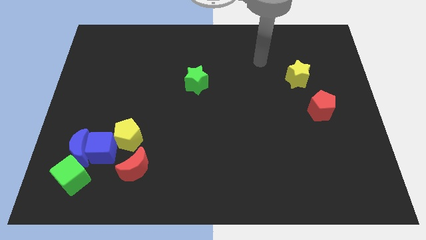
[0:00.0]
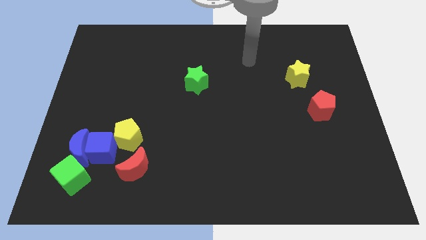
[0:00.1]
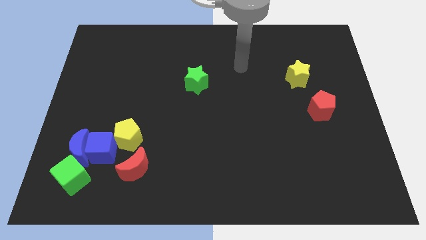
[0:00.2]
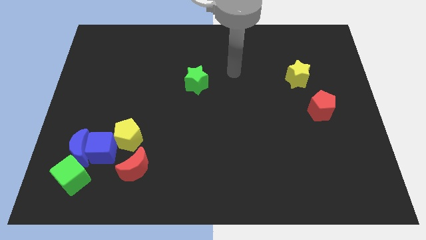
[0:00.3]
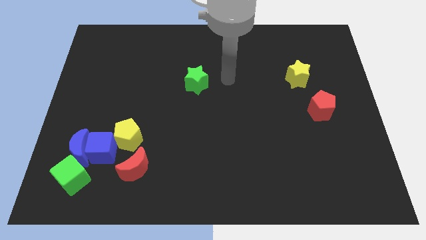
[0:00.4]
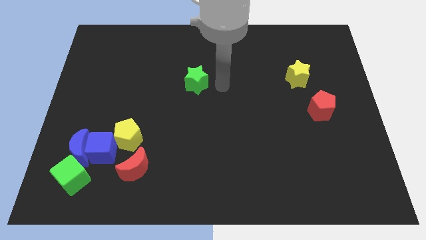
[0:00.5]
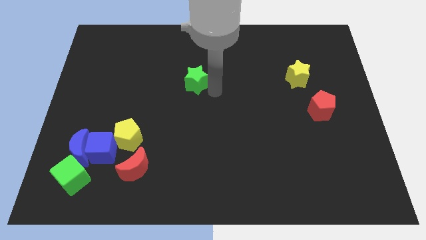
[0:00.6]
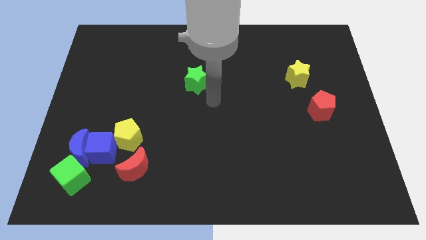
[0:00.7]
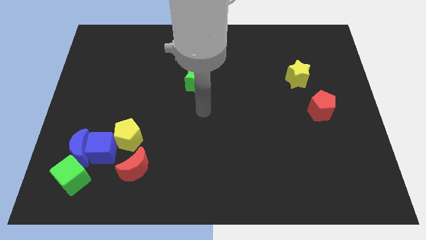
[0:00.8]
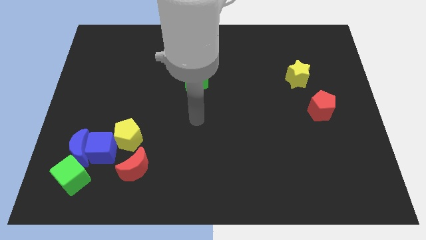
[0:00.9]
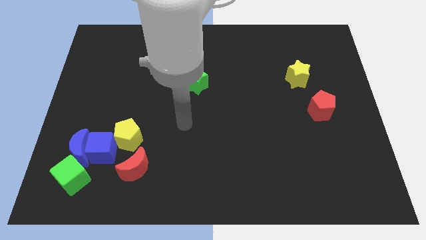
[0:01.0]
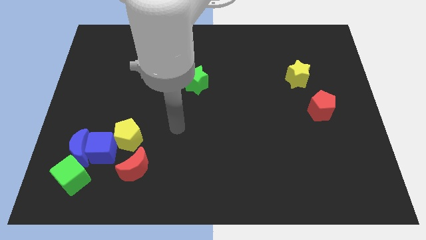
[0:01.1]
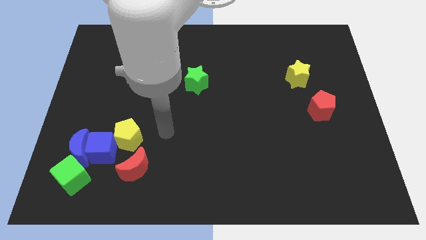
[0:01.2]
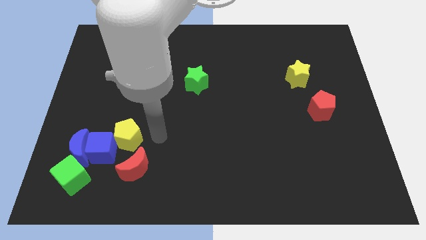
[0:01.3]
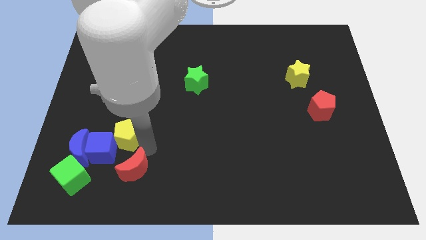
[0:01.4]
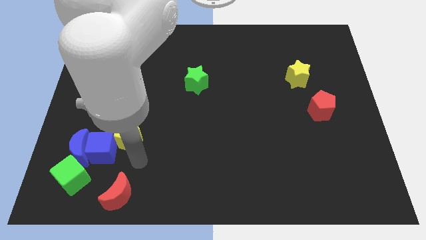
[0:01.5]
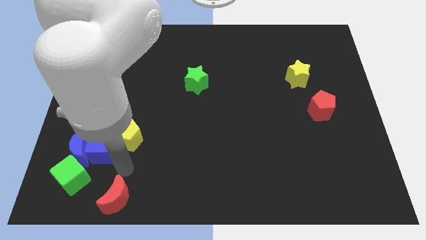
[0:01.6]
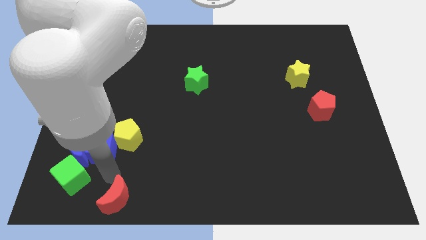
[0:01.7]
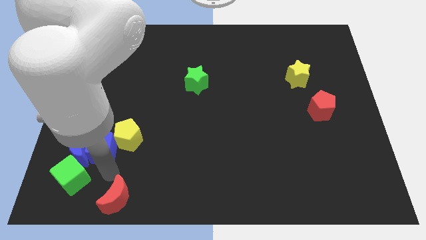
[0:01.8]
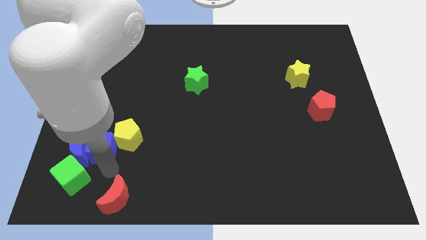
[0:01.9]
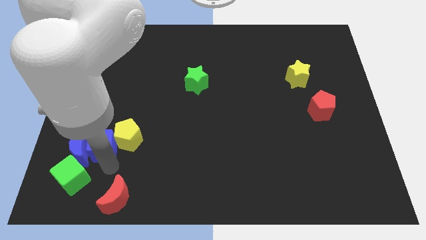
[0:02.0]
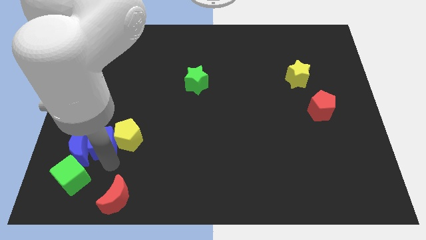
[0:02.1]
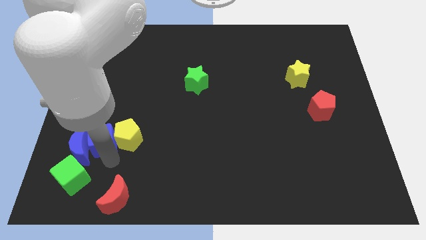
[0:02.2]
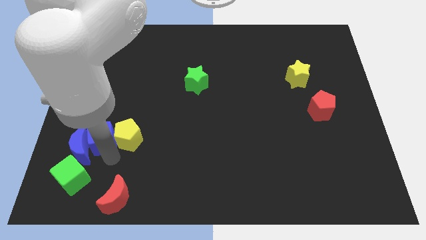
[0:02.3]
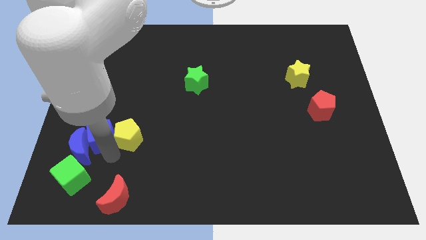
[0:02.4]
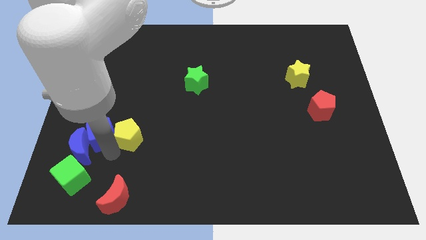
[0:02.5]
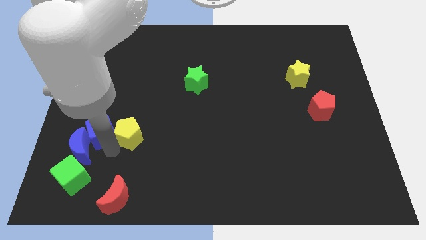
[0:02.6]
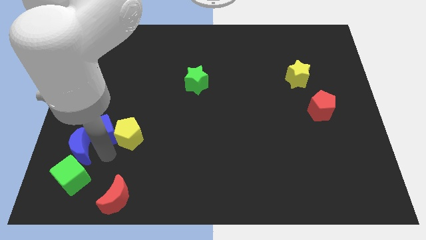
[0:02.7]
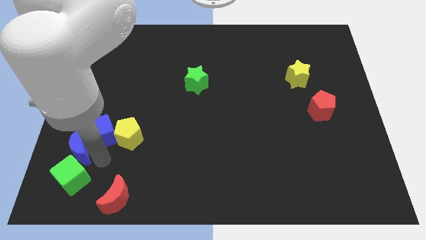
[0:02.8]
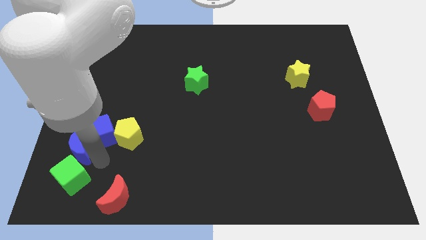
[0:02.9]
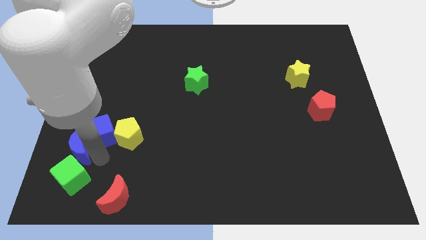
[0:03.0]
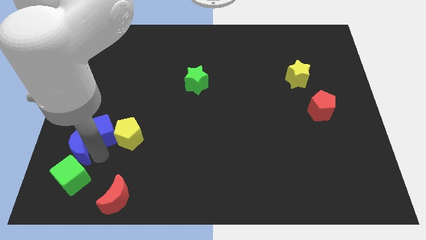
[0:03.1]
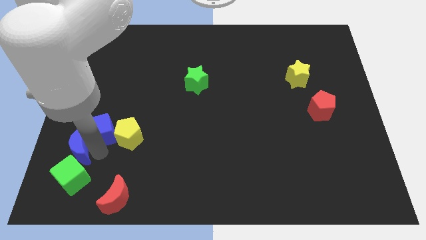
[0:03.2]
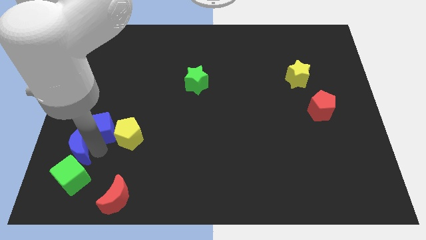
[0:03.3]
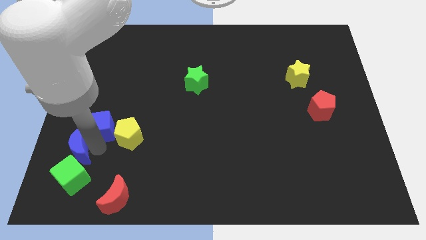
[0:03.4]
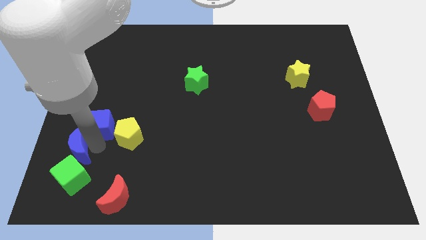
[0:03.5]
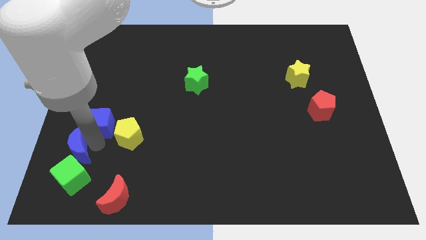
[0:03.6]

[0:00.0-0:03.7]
pull the blue cube apart from the group of blocks

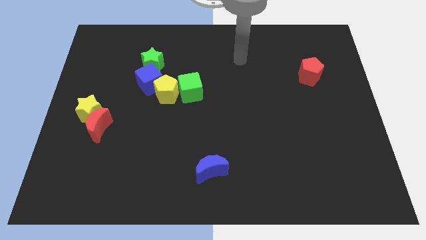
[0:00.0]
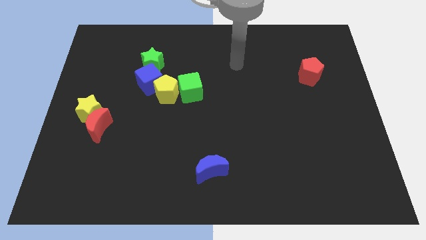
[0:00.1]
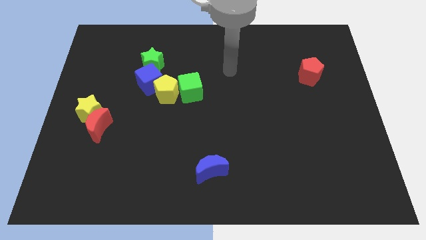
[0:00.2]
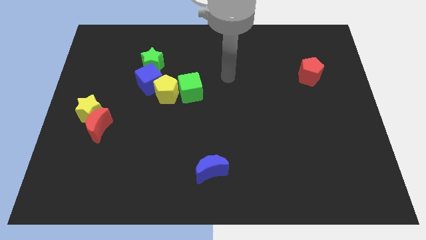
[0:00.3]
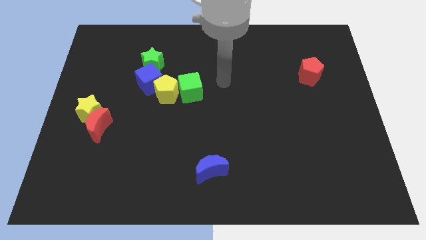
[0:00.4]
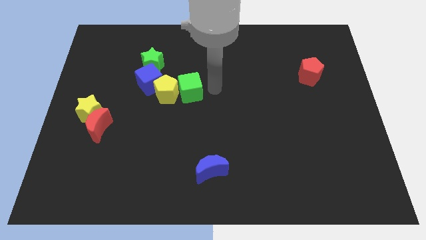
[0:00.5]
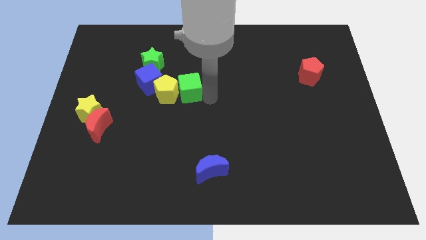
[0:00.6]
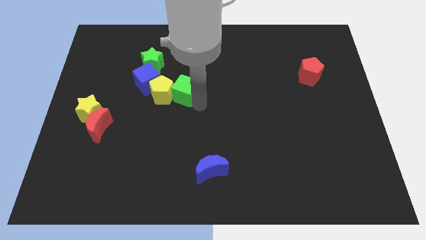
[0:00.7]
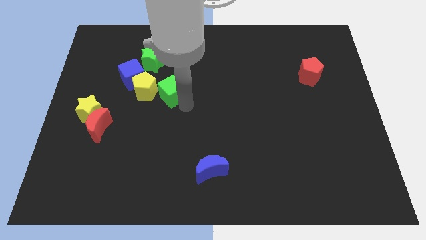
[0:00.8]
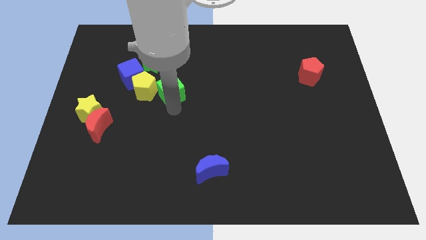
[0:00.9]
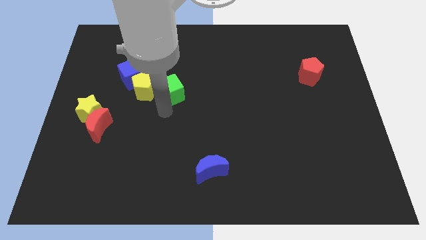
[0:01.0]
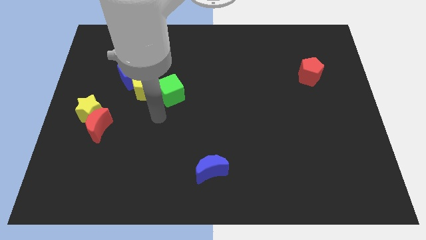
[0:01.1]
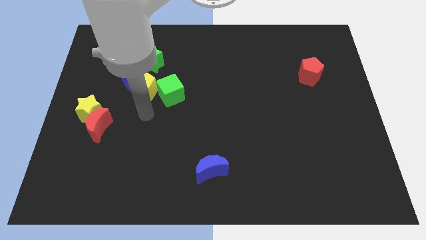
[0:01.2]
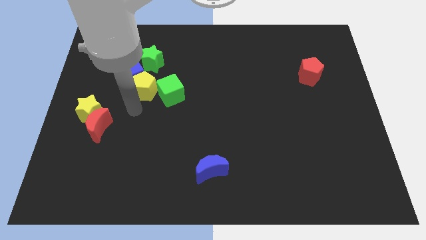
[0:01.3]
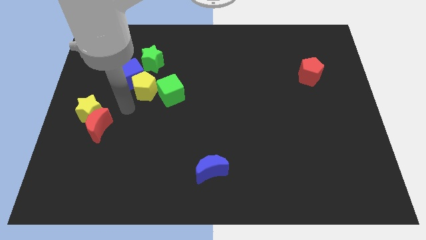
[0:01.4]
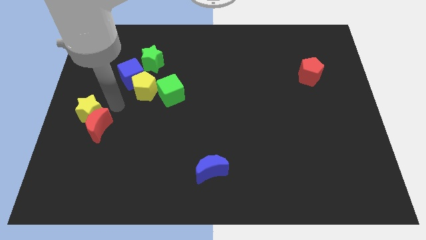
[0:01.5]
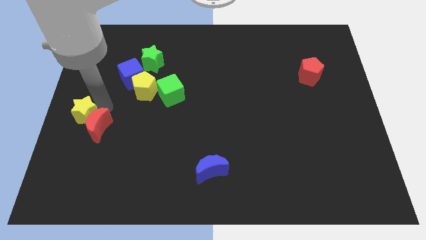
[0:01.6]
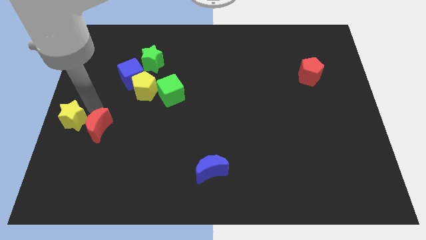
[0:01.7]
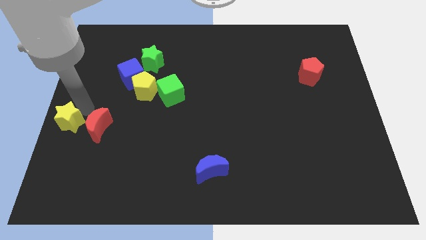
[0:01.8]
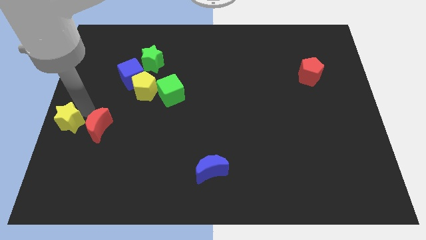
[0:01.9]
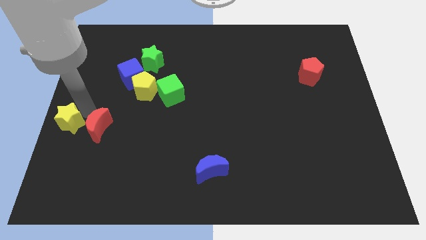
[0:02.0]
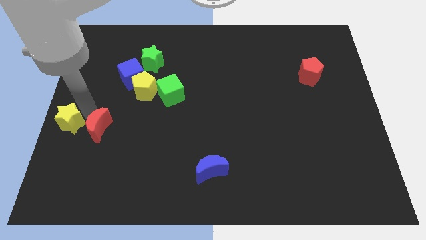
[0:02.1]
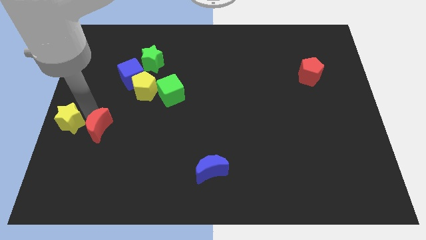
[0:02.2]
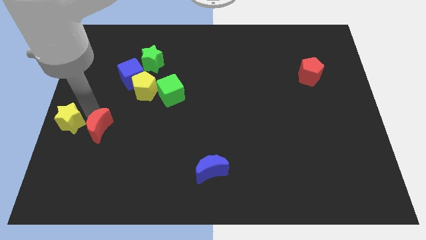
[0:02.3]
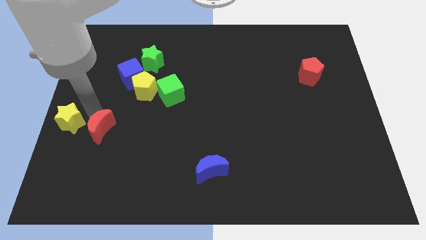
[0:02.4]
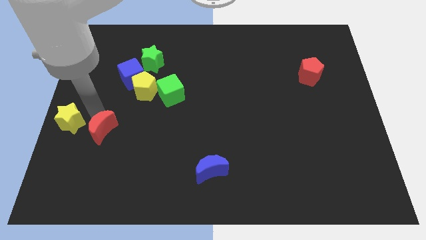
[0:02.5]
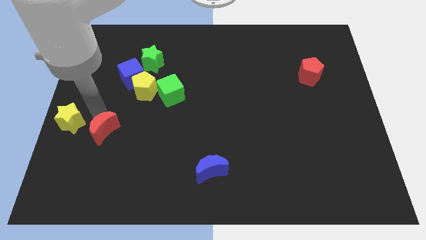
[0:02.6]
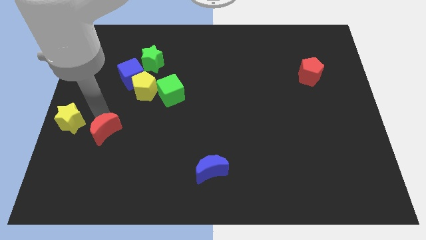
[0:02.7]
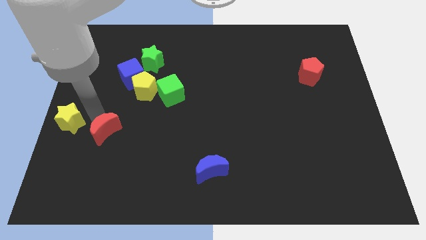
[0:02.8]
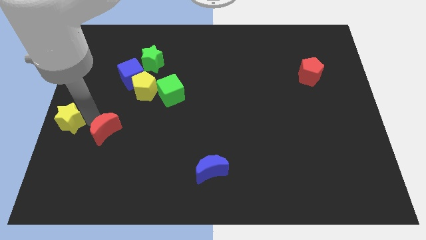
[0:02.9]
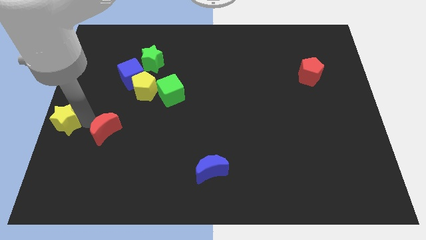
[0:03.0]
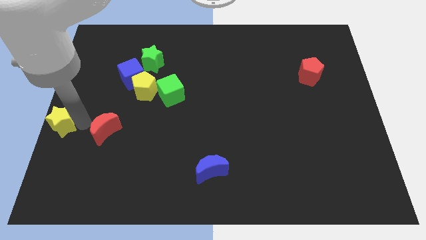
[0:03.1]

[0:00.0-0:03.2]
separate the red moon from the yellow star

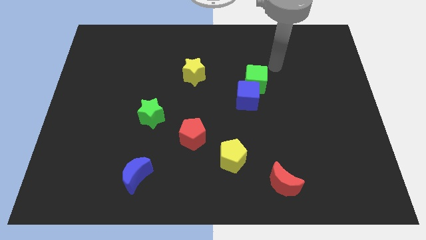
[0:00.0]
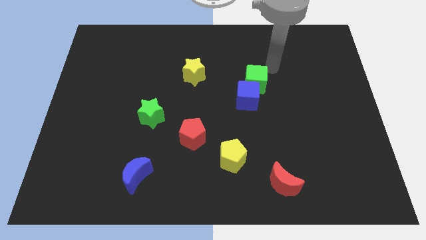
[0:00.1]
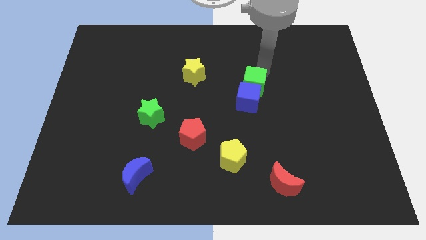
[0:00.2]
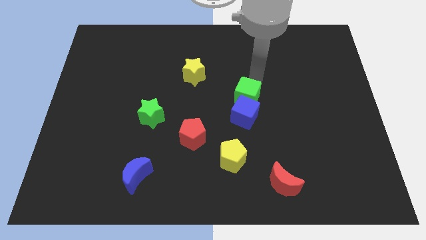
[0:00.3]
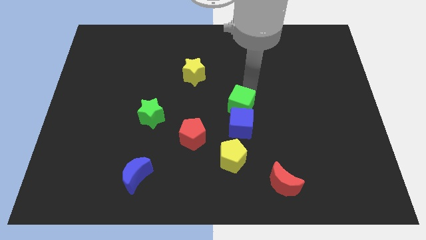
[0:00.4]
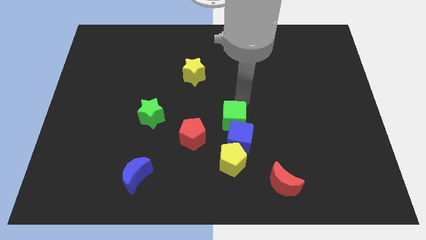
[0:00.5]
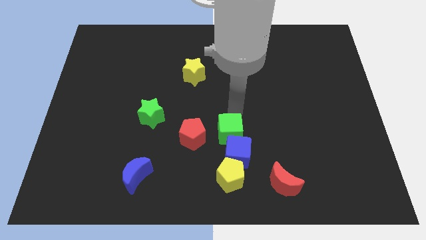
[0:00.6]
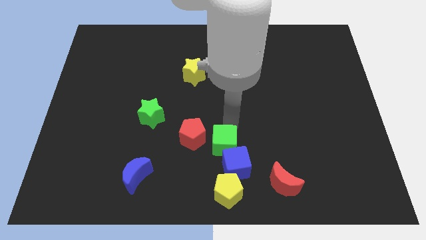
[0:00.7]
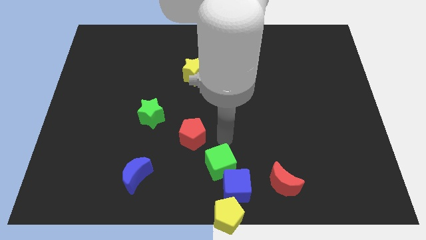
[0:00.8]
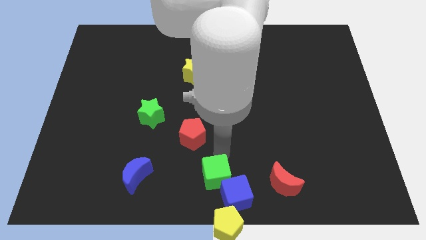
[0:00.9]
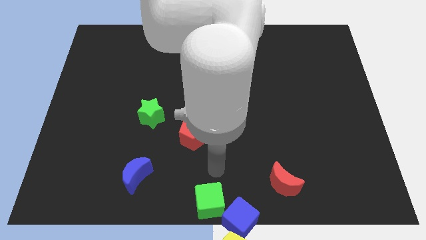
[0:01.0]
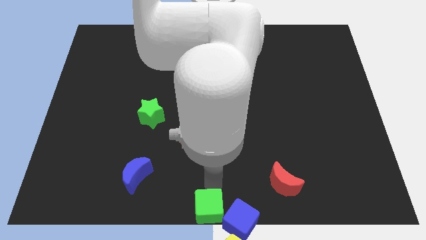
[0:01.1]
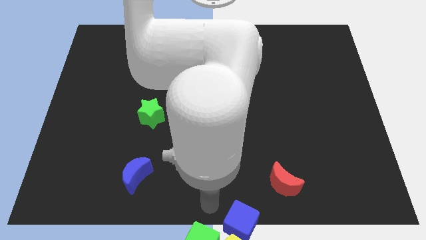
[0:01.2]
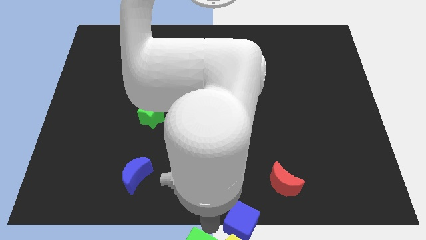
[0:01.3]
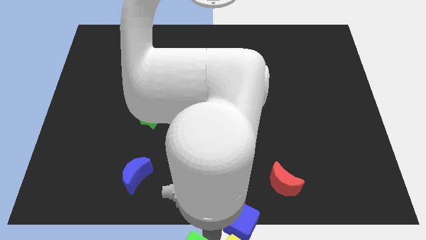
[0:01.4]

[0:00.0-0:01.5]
move the blue cube away from the green cube

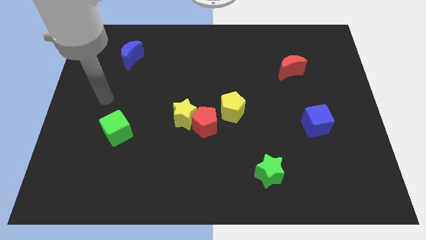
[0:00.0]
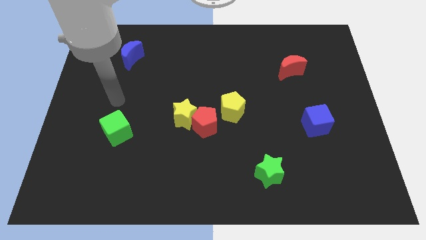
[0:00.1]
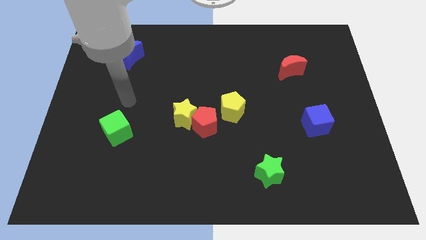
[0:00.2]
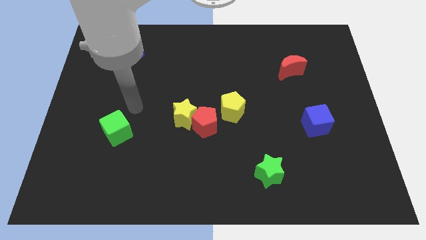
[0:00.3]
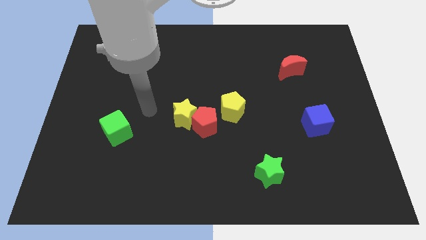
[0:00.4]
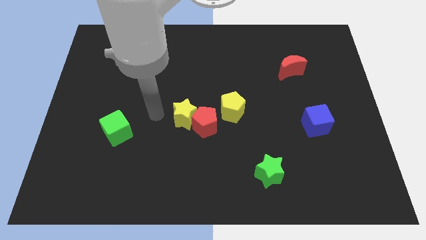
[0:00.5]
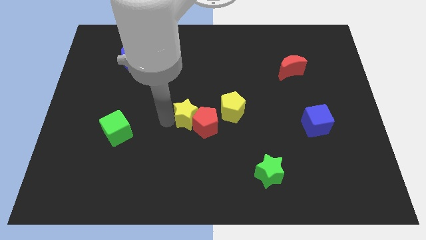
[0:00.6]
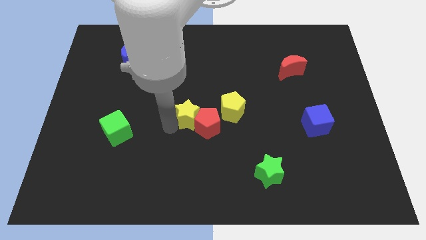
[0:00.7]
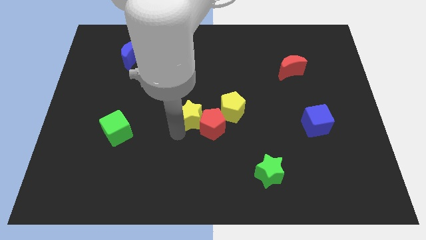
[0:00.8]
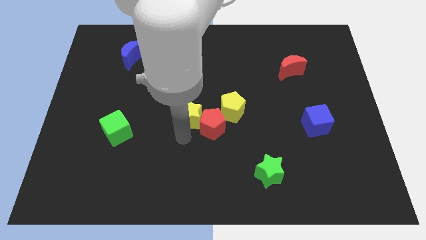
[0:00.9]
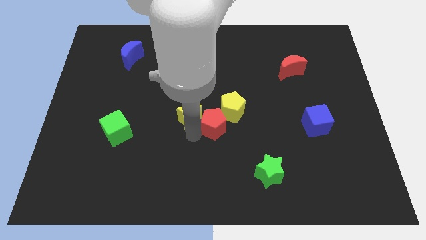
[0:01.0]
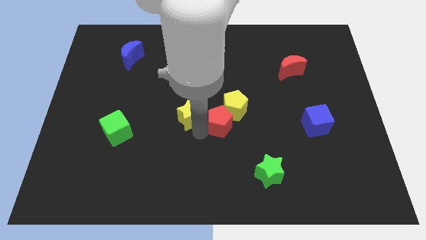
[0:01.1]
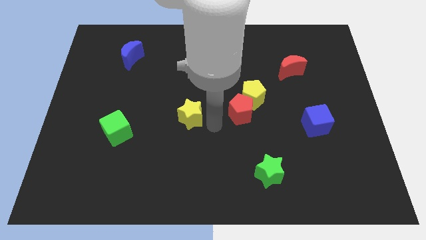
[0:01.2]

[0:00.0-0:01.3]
separate the yellow star from the red pentagon
